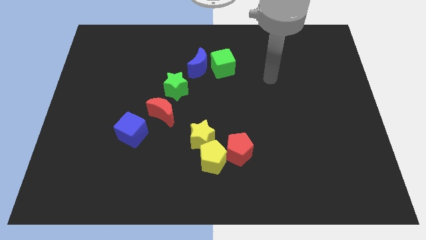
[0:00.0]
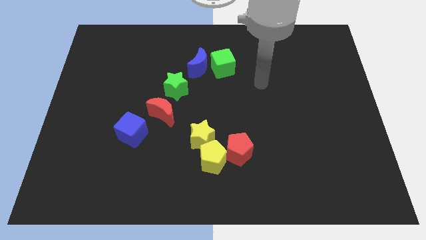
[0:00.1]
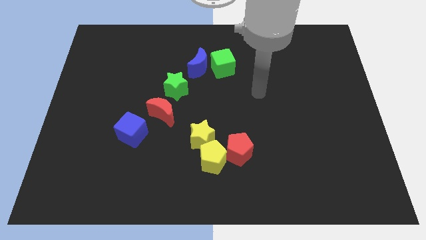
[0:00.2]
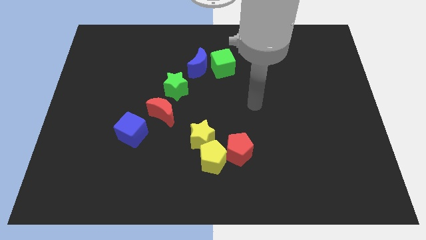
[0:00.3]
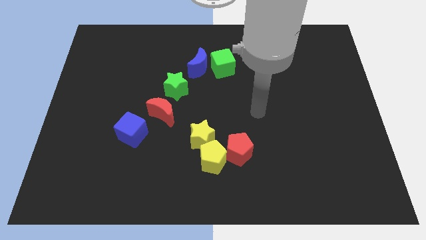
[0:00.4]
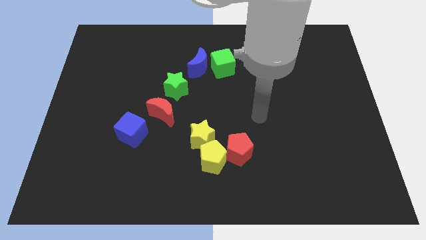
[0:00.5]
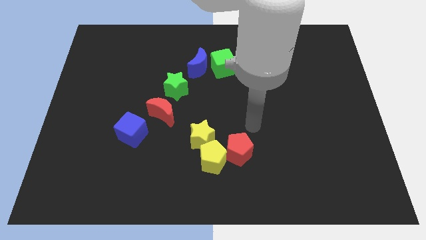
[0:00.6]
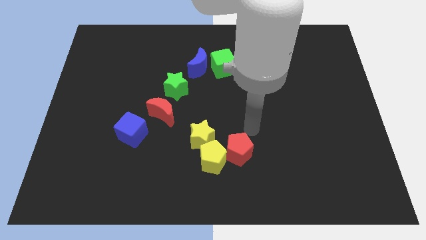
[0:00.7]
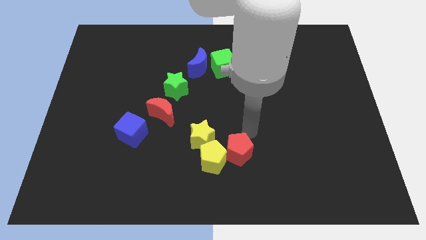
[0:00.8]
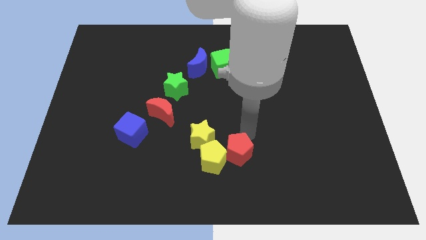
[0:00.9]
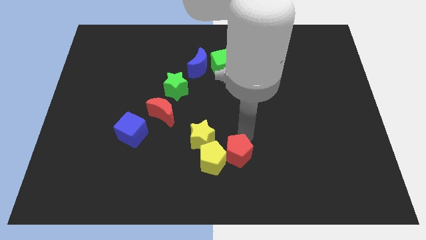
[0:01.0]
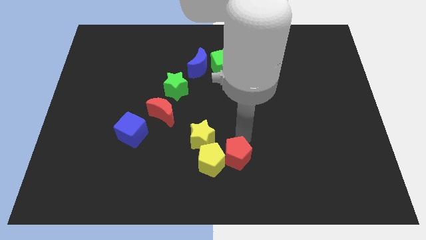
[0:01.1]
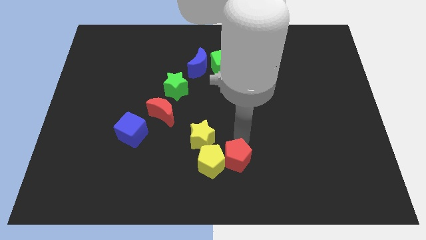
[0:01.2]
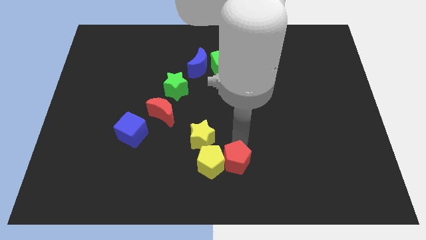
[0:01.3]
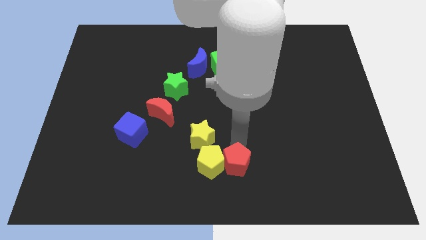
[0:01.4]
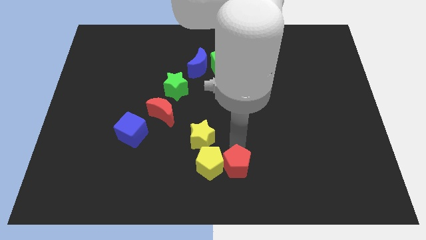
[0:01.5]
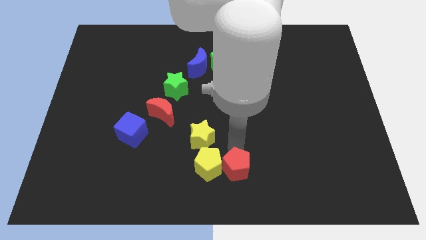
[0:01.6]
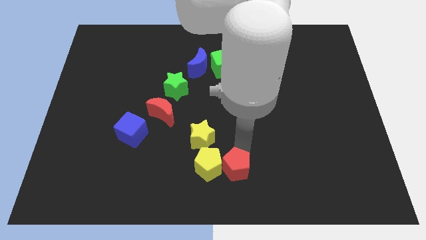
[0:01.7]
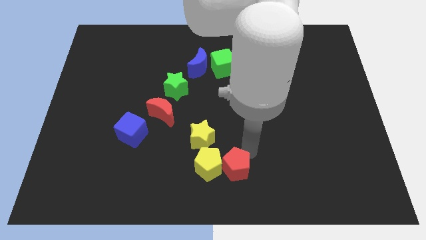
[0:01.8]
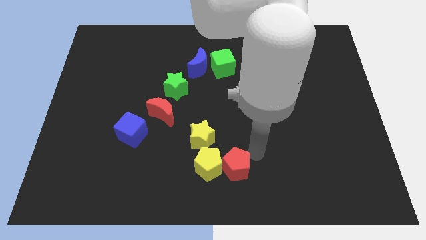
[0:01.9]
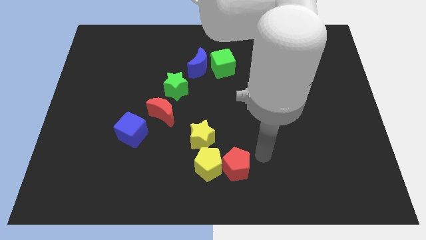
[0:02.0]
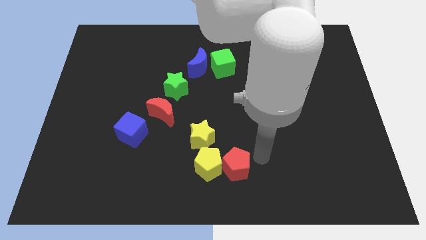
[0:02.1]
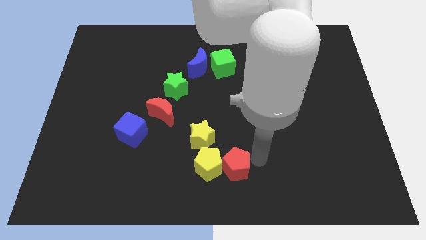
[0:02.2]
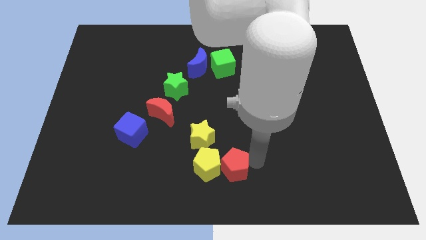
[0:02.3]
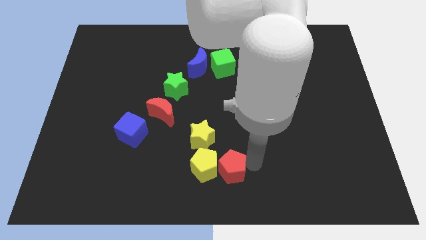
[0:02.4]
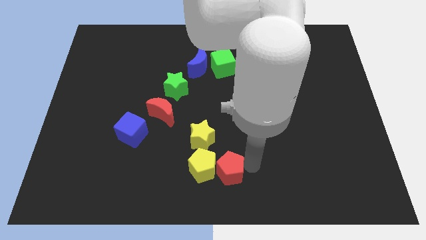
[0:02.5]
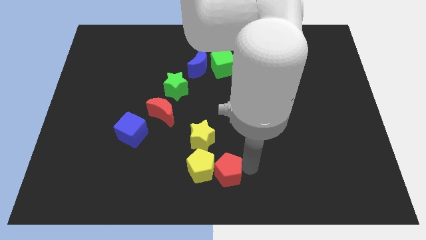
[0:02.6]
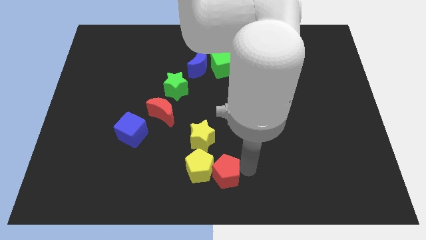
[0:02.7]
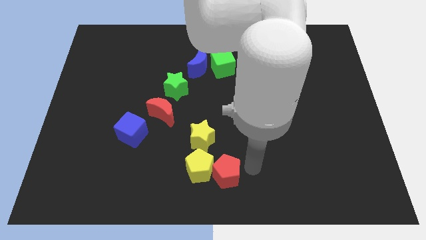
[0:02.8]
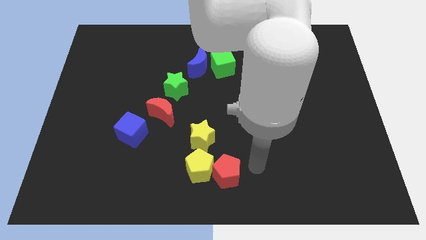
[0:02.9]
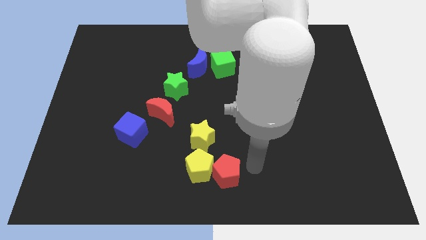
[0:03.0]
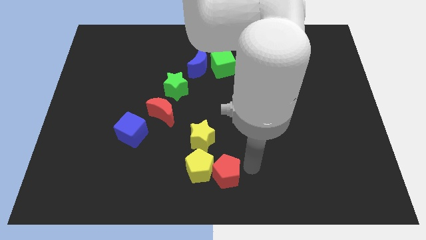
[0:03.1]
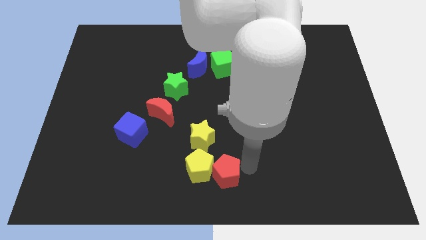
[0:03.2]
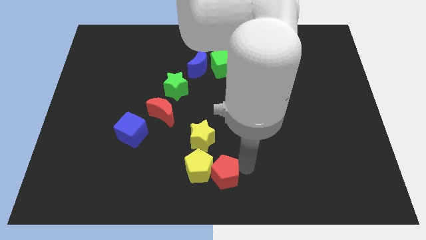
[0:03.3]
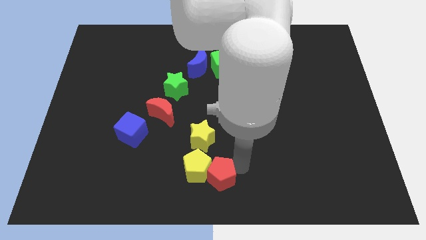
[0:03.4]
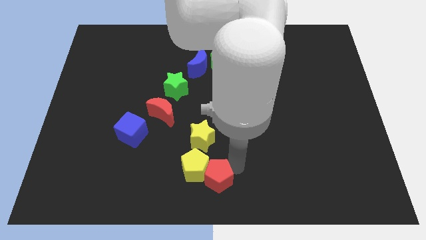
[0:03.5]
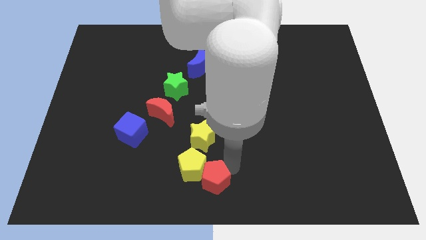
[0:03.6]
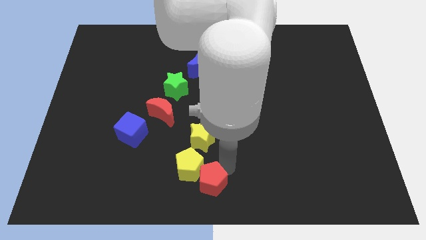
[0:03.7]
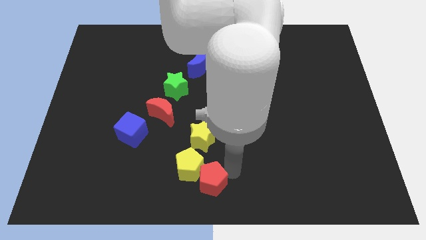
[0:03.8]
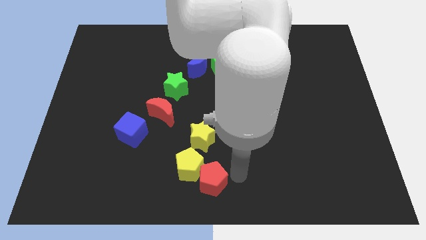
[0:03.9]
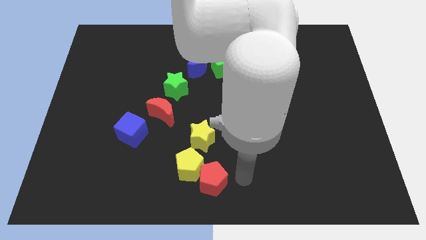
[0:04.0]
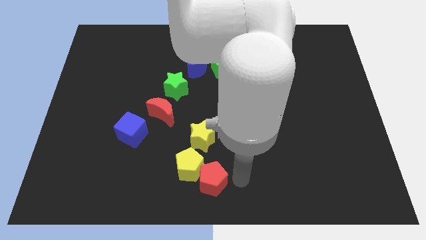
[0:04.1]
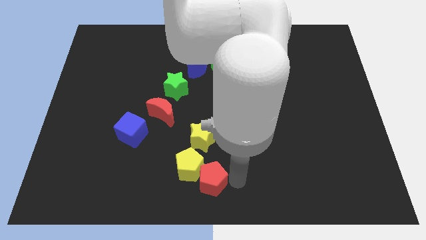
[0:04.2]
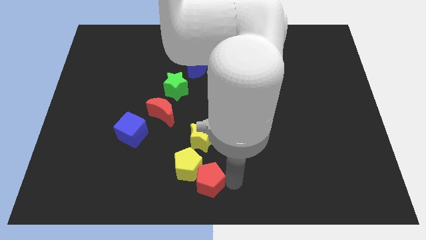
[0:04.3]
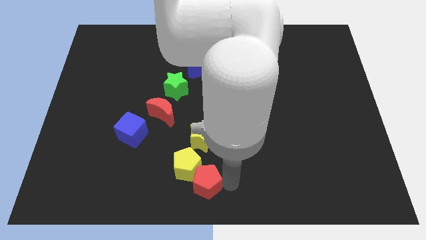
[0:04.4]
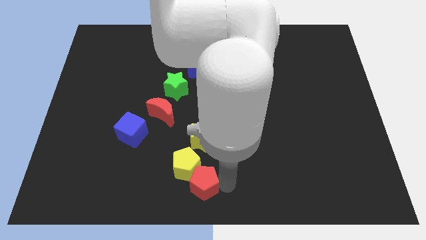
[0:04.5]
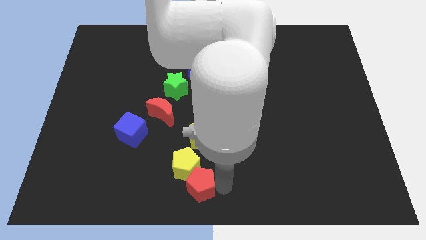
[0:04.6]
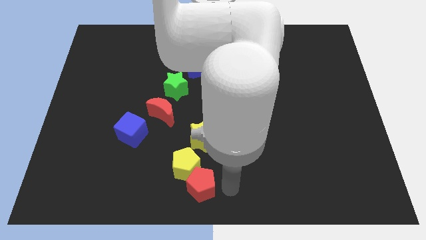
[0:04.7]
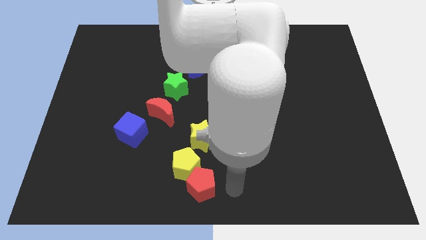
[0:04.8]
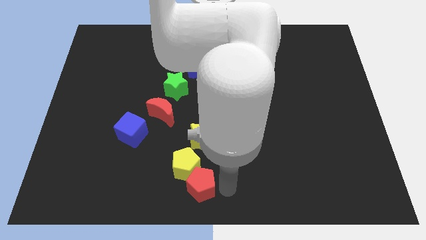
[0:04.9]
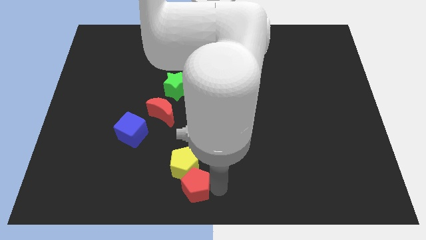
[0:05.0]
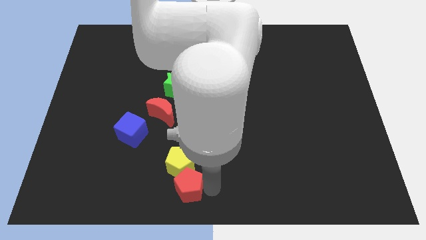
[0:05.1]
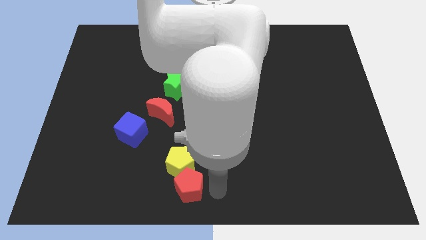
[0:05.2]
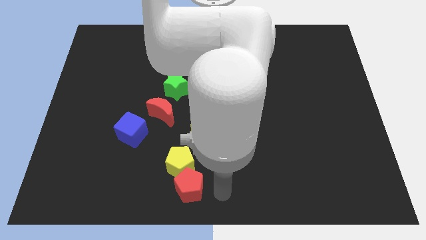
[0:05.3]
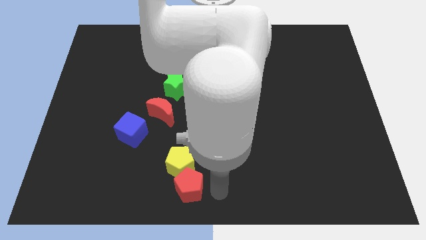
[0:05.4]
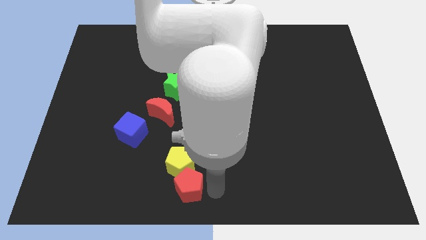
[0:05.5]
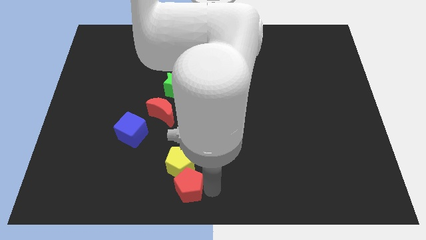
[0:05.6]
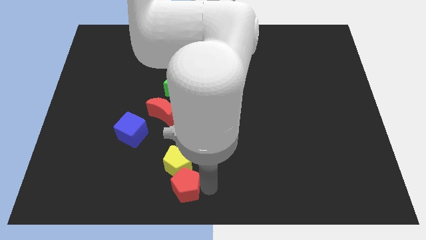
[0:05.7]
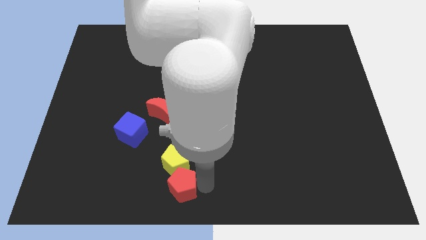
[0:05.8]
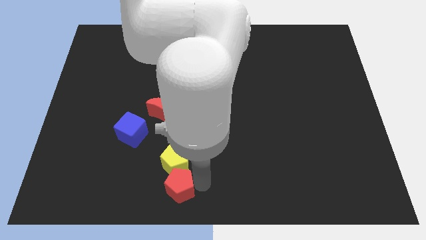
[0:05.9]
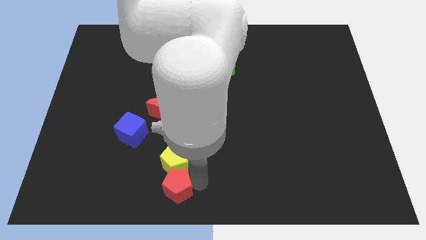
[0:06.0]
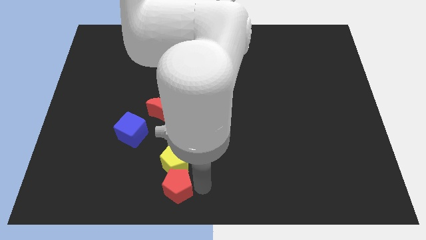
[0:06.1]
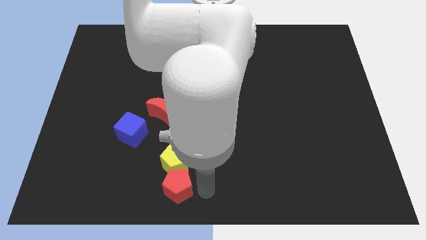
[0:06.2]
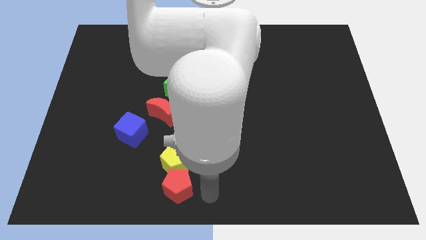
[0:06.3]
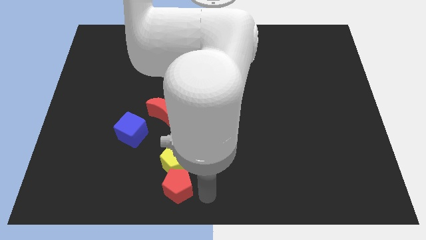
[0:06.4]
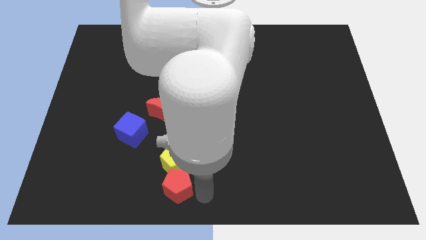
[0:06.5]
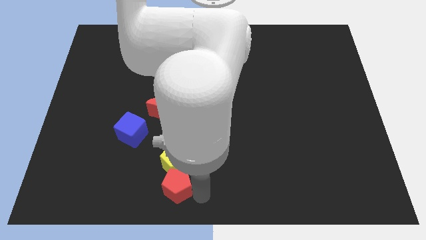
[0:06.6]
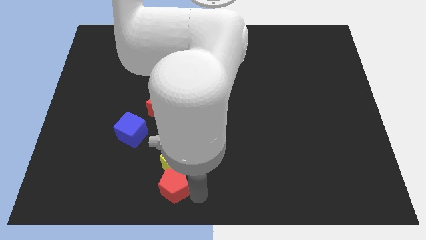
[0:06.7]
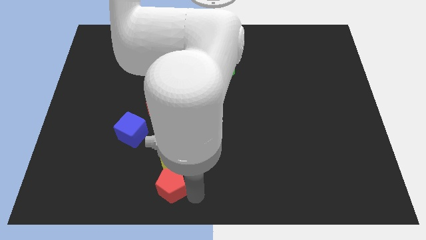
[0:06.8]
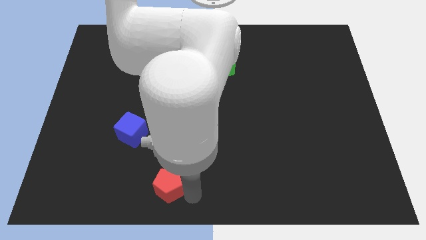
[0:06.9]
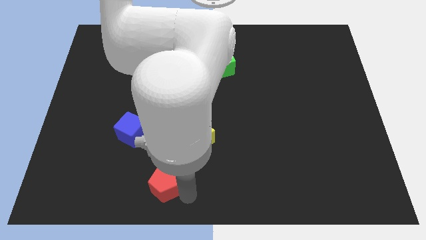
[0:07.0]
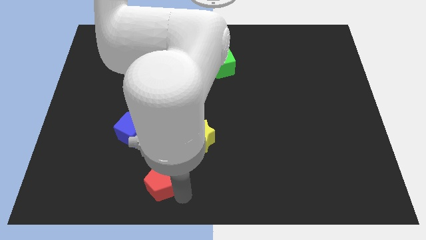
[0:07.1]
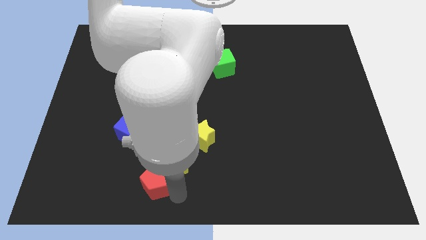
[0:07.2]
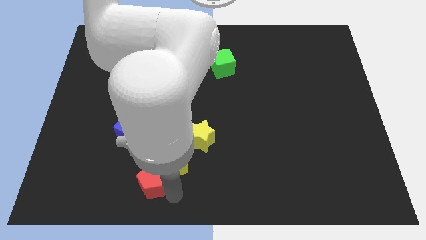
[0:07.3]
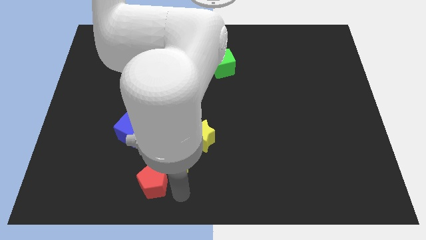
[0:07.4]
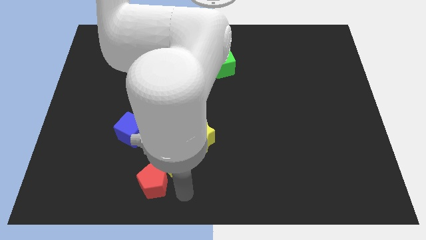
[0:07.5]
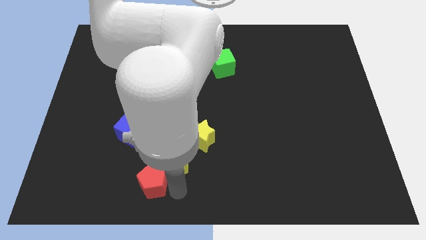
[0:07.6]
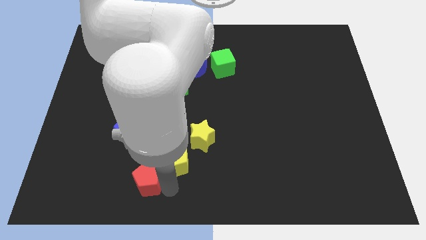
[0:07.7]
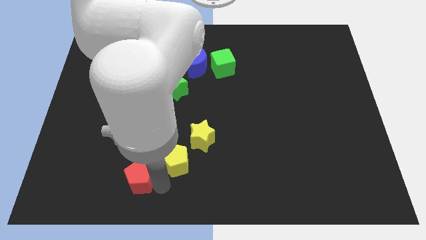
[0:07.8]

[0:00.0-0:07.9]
put the red pentagon to the bottom side of the blue cube
